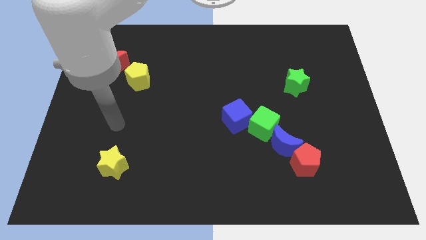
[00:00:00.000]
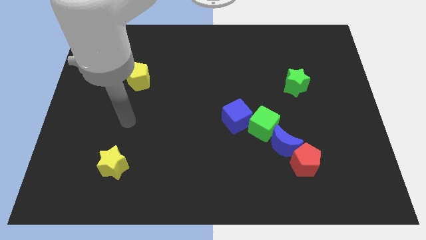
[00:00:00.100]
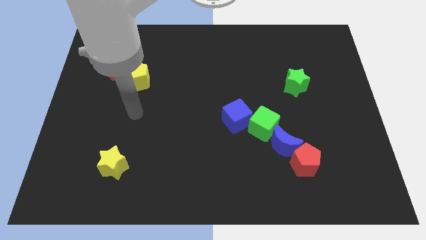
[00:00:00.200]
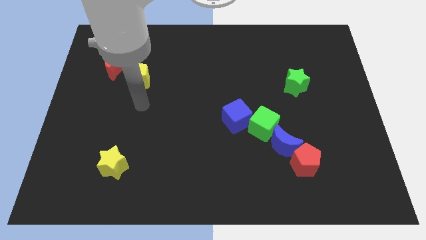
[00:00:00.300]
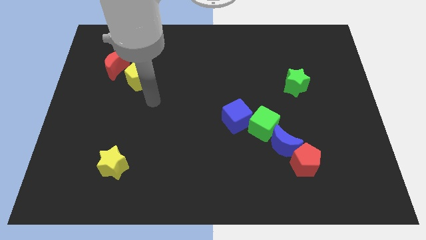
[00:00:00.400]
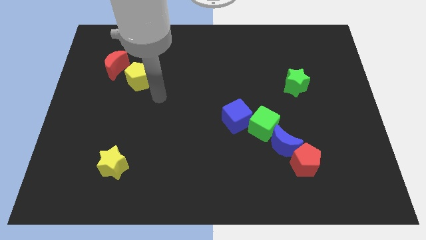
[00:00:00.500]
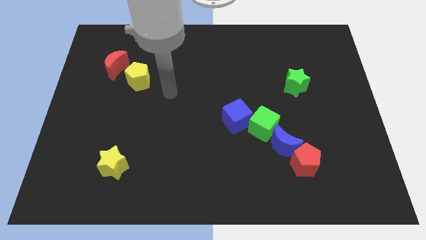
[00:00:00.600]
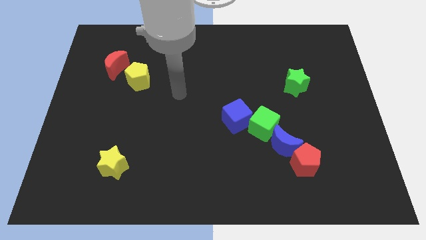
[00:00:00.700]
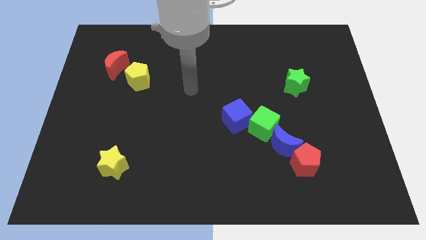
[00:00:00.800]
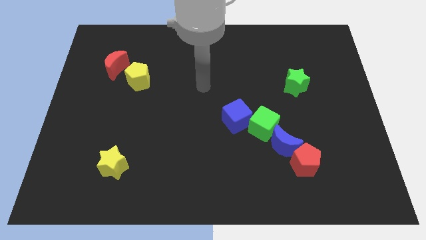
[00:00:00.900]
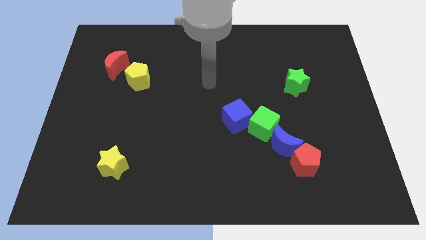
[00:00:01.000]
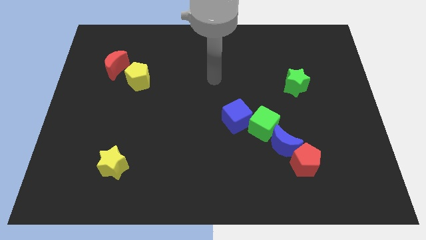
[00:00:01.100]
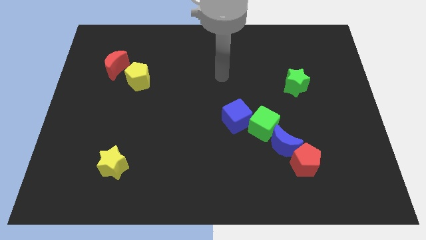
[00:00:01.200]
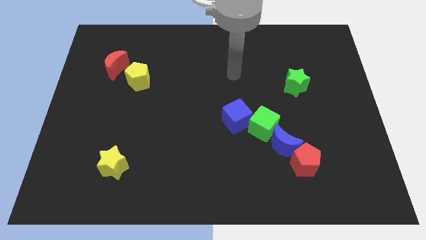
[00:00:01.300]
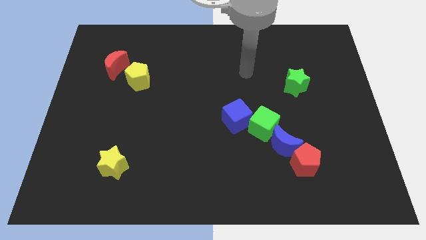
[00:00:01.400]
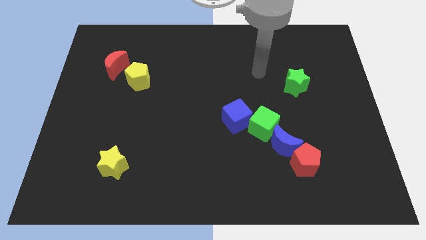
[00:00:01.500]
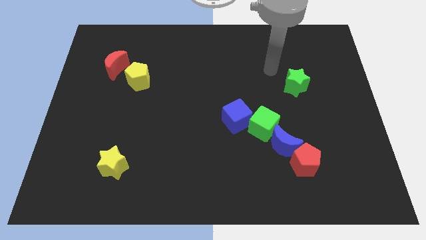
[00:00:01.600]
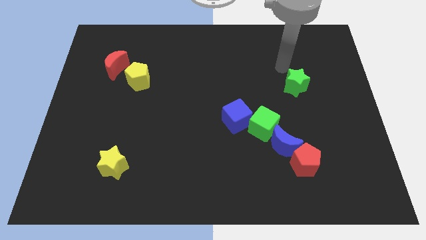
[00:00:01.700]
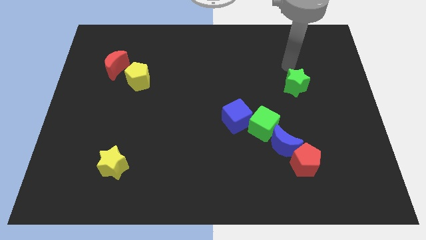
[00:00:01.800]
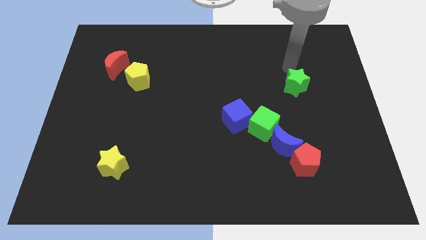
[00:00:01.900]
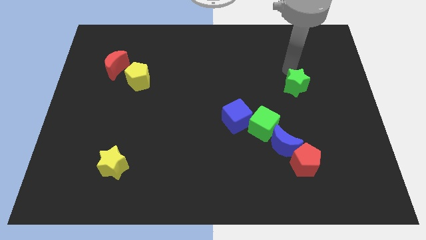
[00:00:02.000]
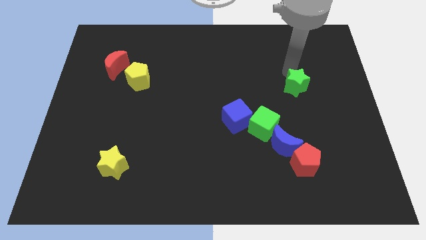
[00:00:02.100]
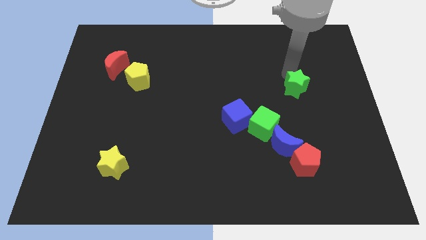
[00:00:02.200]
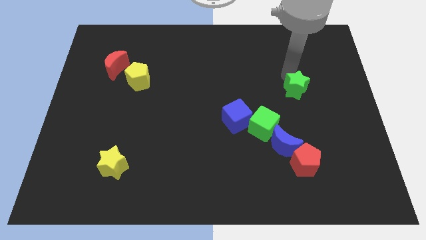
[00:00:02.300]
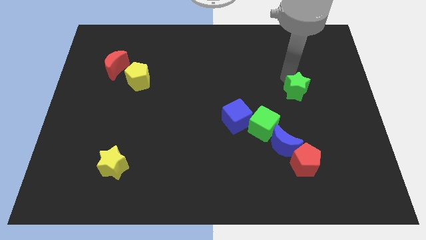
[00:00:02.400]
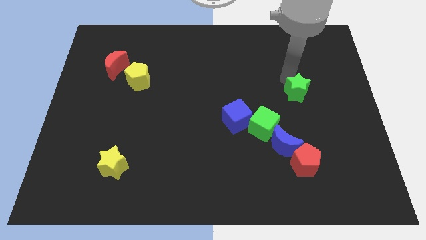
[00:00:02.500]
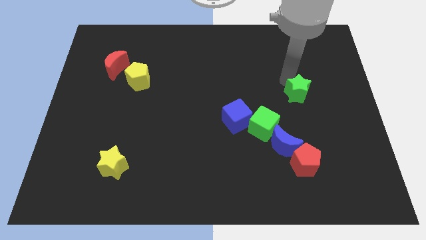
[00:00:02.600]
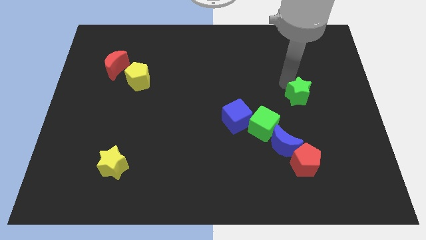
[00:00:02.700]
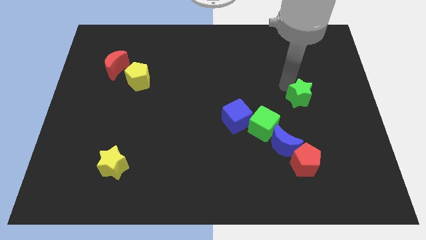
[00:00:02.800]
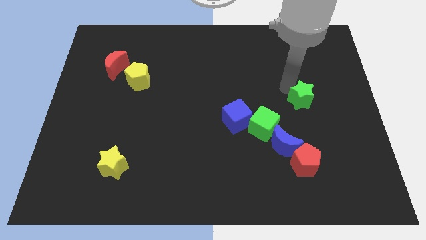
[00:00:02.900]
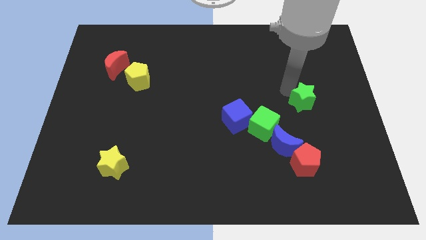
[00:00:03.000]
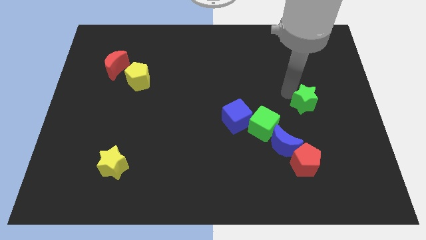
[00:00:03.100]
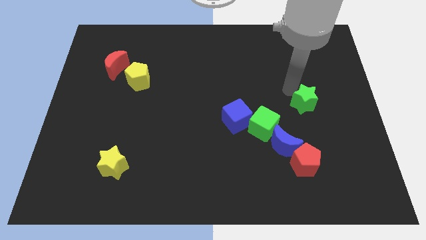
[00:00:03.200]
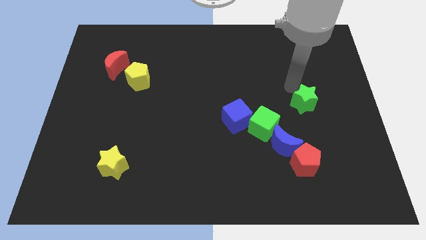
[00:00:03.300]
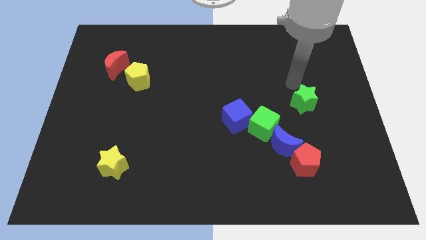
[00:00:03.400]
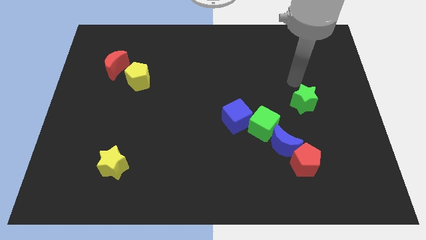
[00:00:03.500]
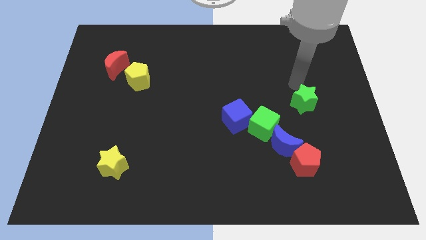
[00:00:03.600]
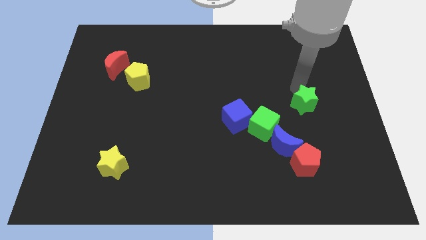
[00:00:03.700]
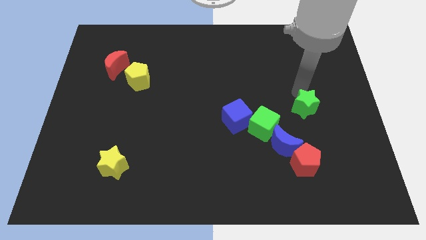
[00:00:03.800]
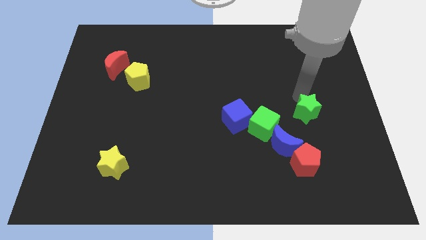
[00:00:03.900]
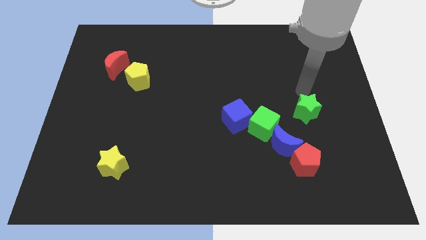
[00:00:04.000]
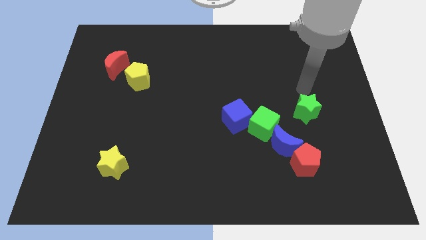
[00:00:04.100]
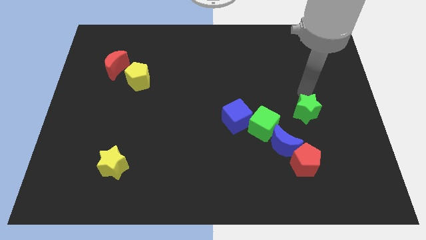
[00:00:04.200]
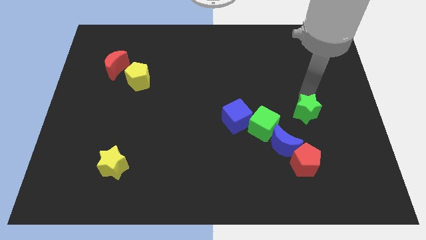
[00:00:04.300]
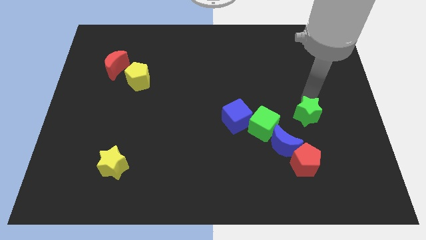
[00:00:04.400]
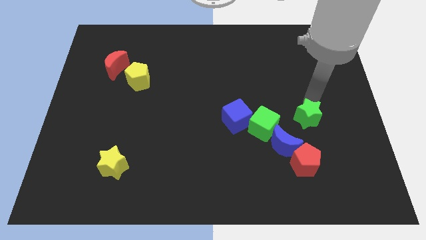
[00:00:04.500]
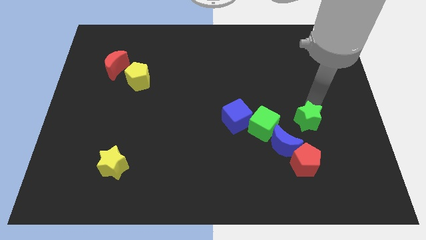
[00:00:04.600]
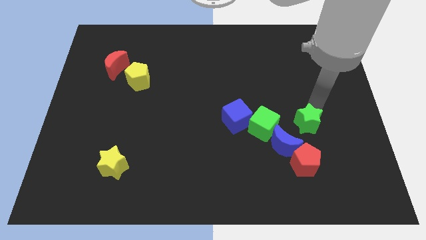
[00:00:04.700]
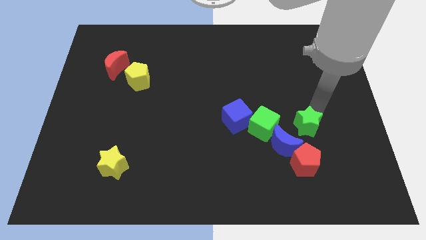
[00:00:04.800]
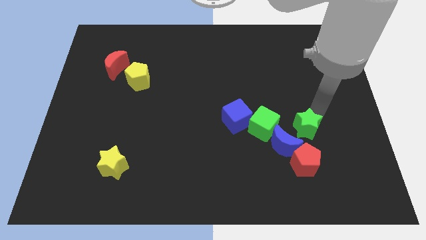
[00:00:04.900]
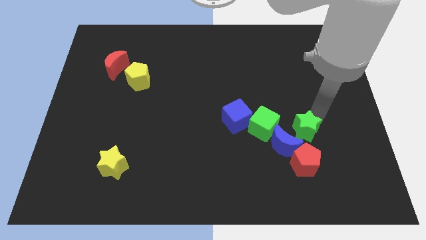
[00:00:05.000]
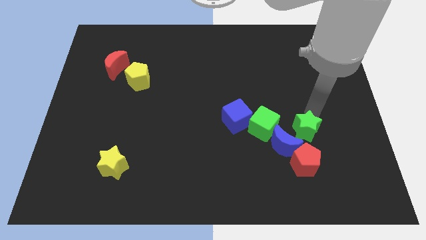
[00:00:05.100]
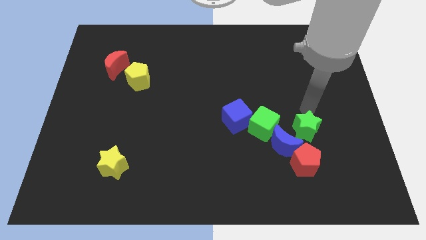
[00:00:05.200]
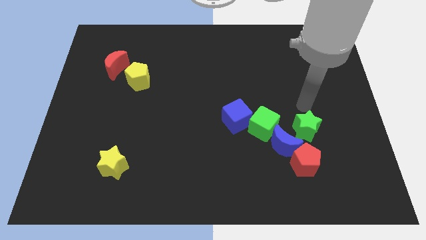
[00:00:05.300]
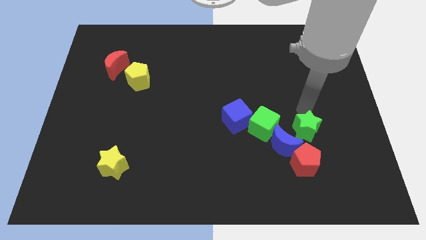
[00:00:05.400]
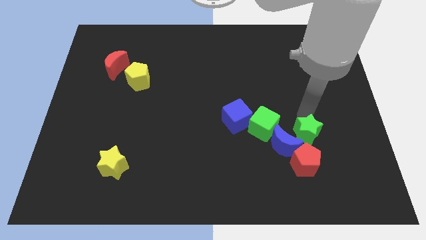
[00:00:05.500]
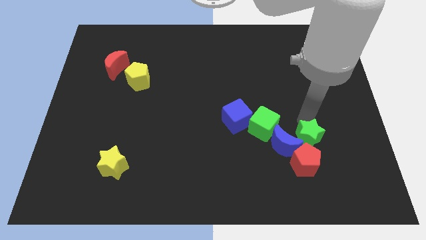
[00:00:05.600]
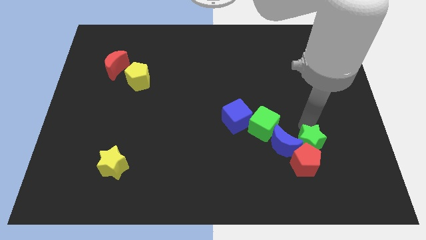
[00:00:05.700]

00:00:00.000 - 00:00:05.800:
push the green star close to the red pentagon

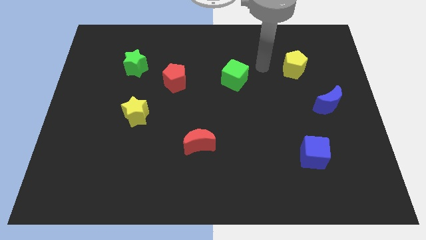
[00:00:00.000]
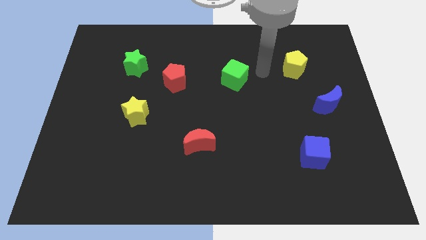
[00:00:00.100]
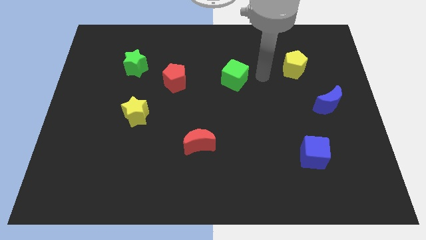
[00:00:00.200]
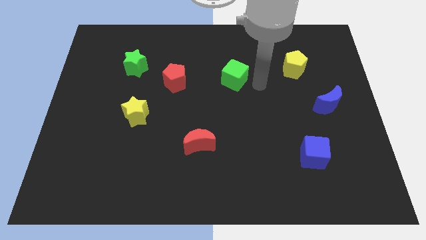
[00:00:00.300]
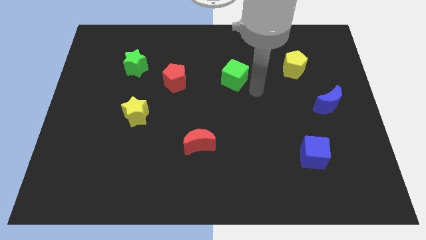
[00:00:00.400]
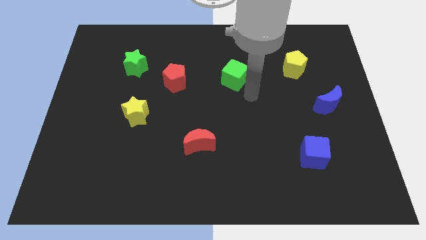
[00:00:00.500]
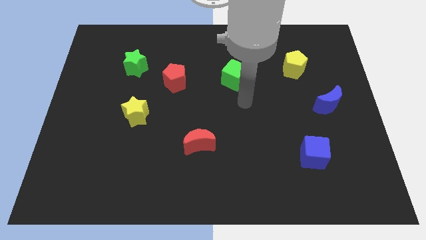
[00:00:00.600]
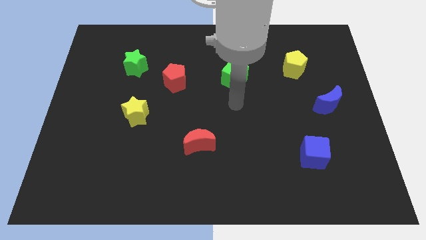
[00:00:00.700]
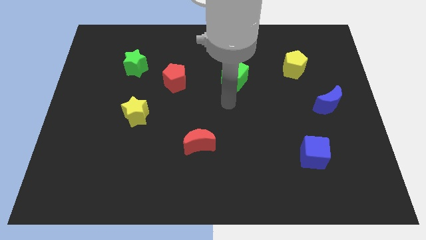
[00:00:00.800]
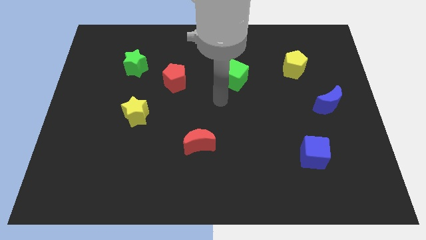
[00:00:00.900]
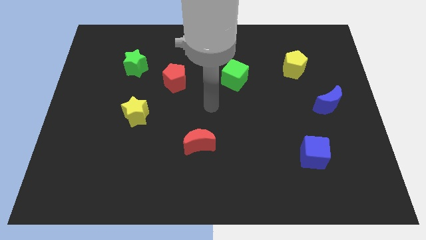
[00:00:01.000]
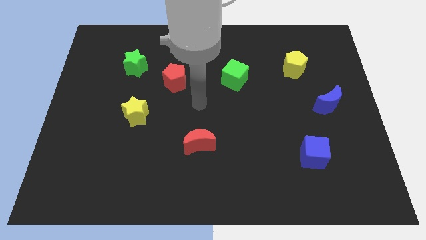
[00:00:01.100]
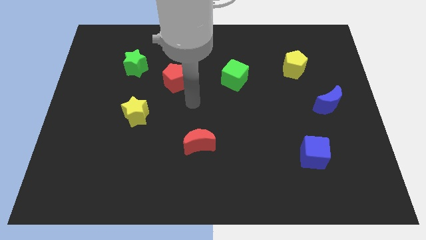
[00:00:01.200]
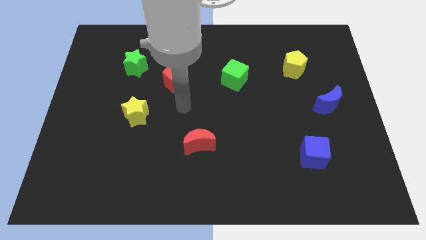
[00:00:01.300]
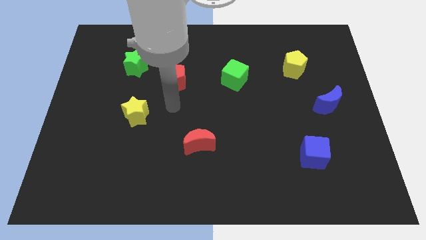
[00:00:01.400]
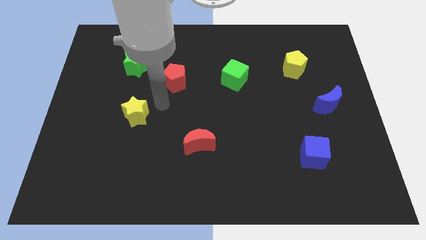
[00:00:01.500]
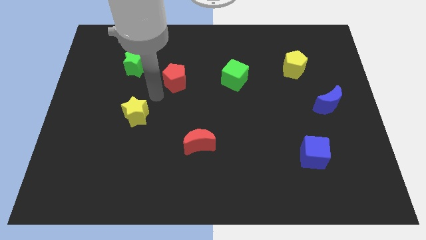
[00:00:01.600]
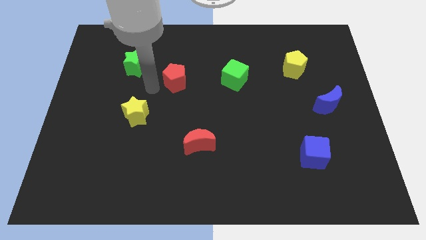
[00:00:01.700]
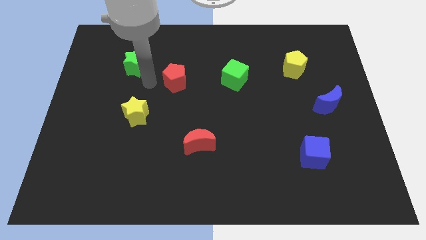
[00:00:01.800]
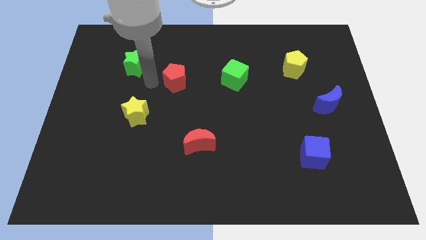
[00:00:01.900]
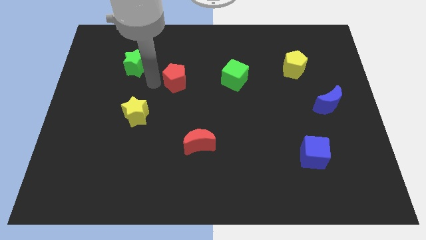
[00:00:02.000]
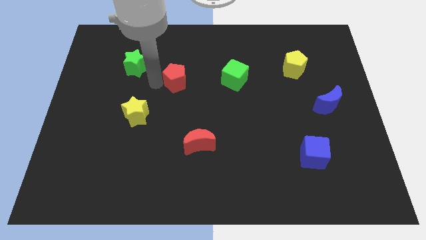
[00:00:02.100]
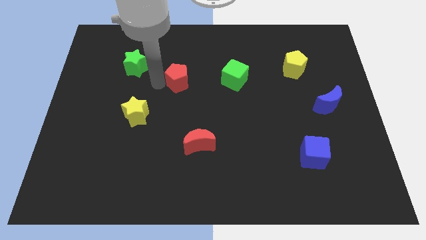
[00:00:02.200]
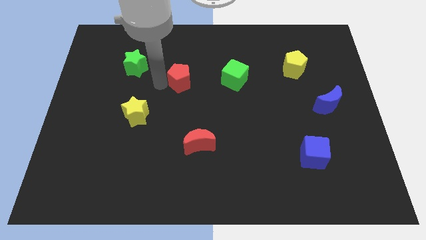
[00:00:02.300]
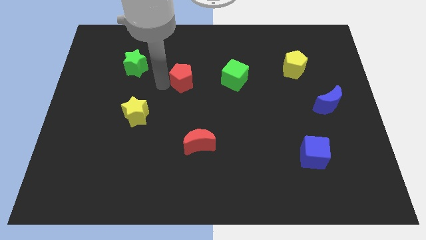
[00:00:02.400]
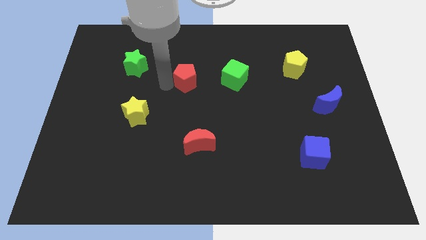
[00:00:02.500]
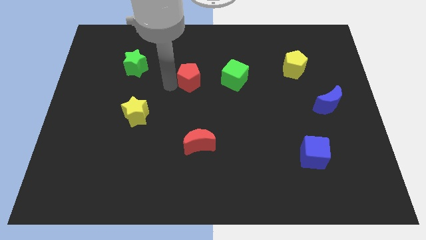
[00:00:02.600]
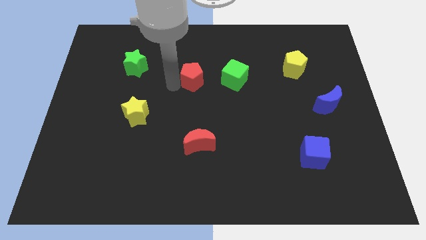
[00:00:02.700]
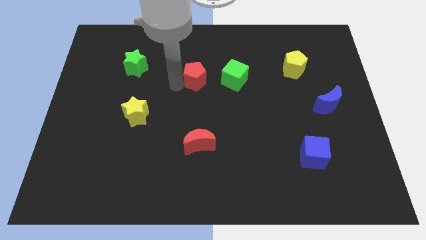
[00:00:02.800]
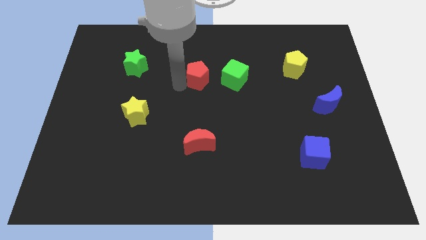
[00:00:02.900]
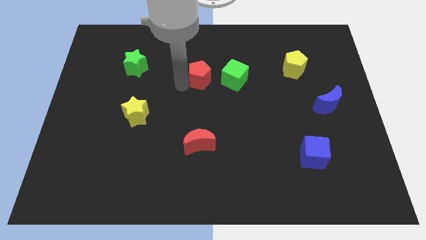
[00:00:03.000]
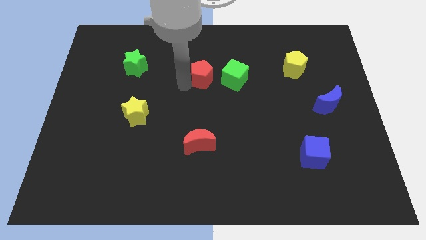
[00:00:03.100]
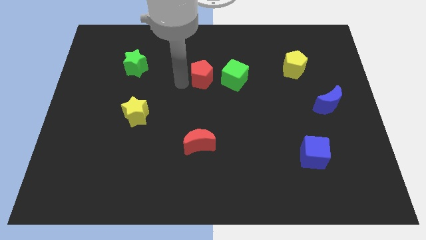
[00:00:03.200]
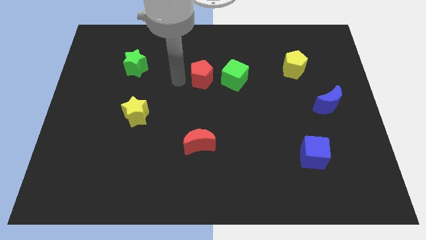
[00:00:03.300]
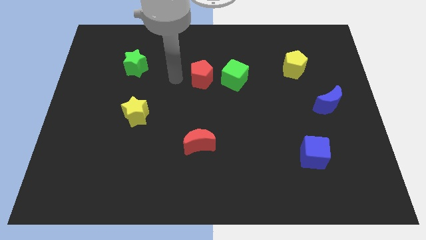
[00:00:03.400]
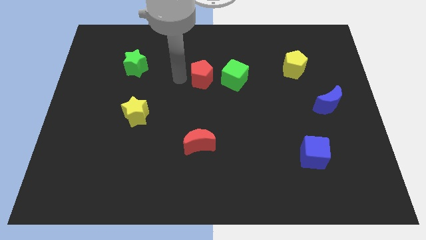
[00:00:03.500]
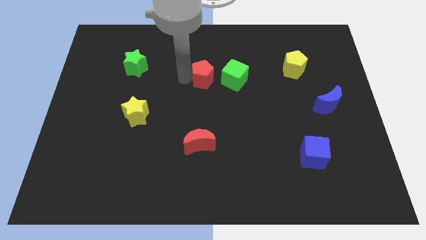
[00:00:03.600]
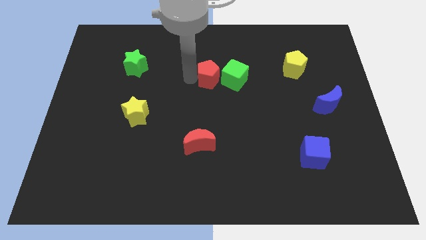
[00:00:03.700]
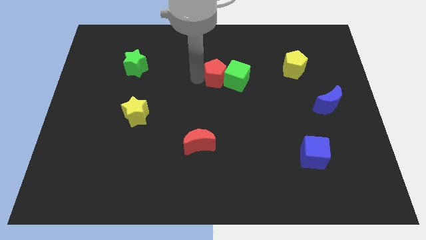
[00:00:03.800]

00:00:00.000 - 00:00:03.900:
move the red pentagon next to the green cube
